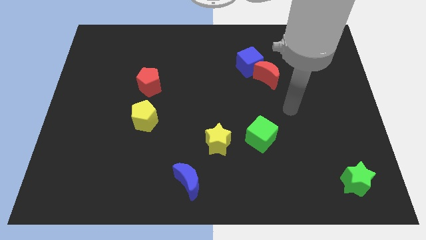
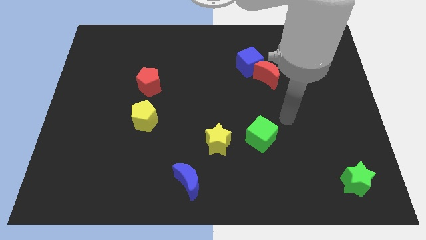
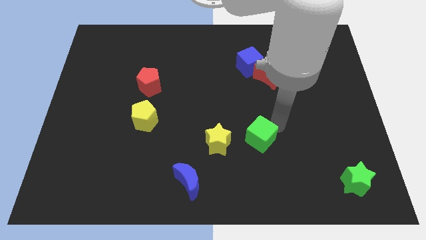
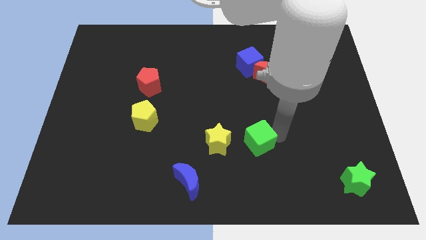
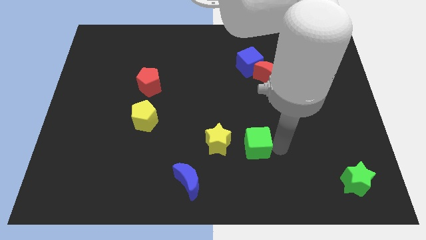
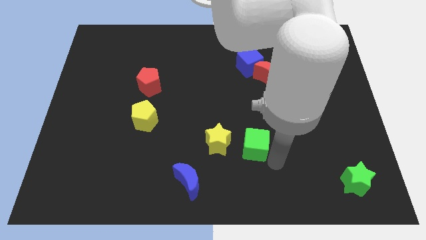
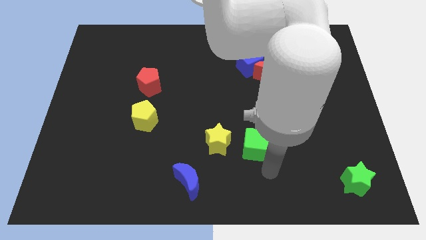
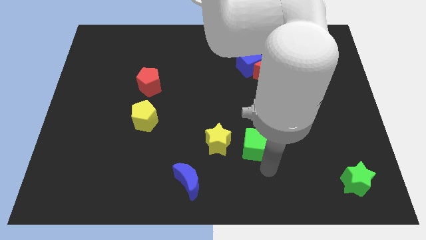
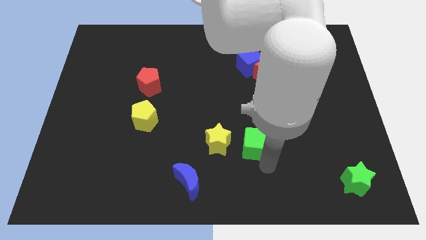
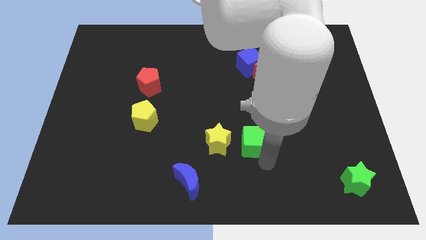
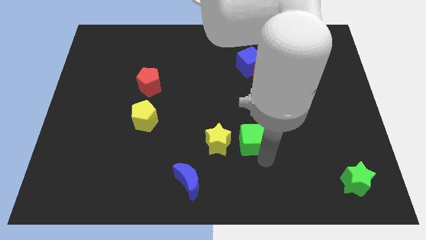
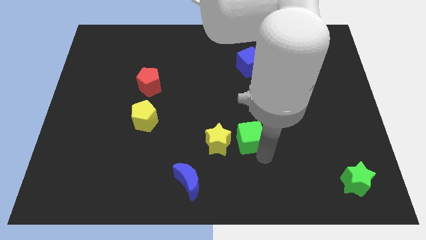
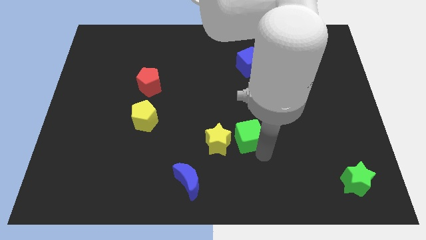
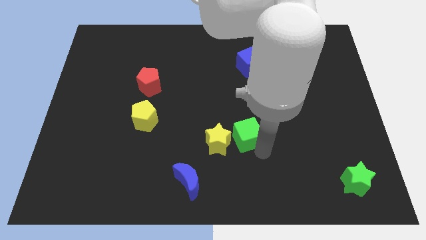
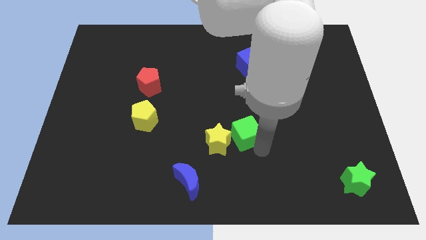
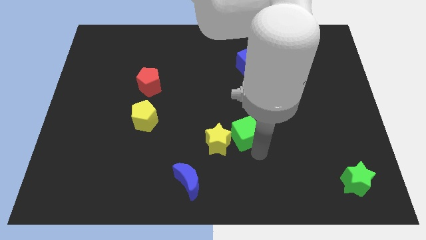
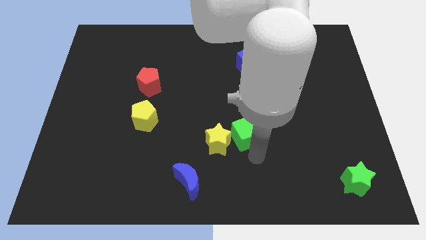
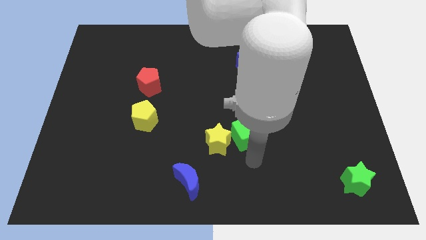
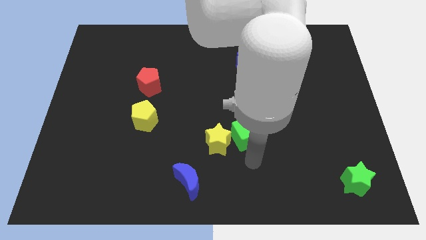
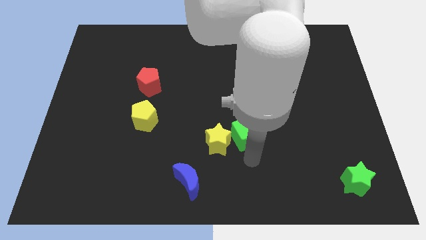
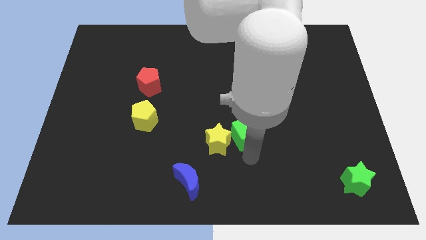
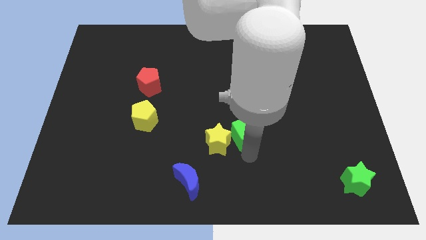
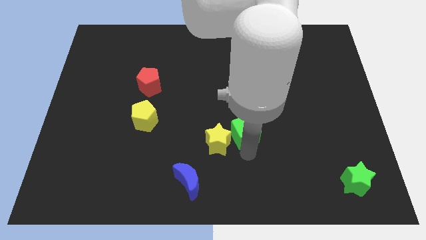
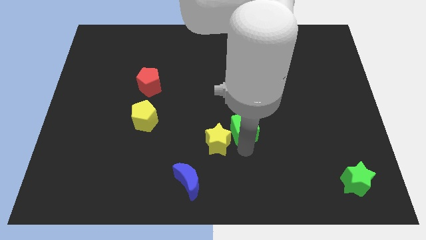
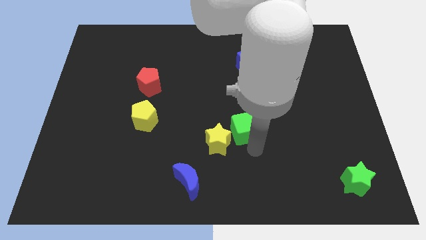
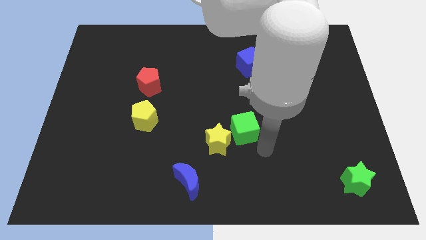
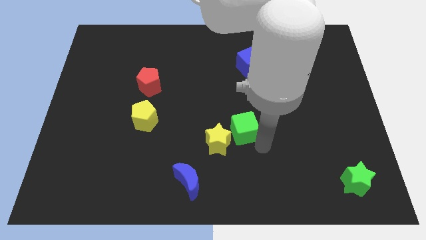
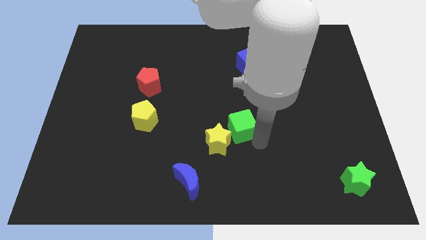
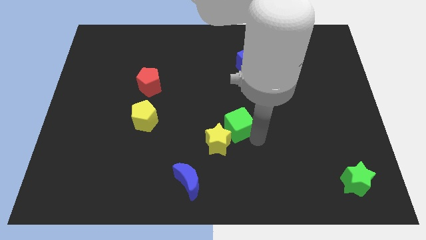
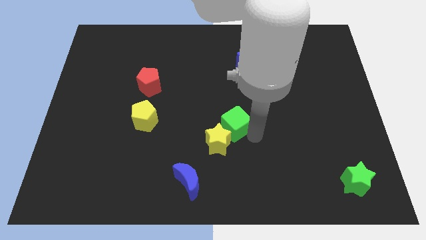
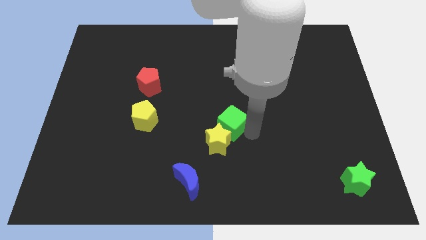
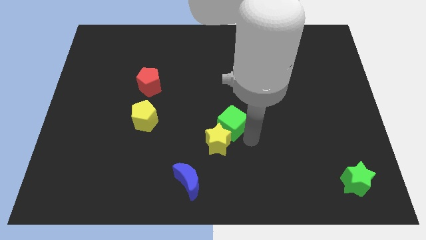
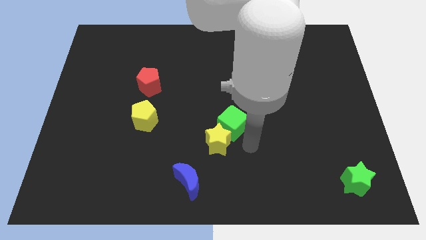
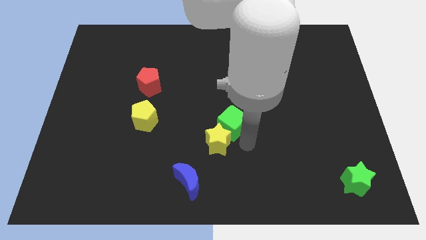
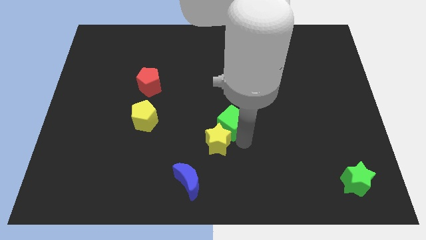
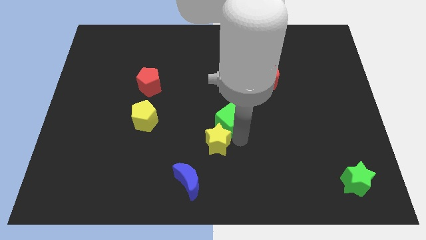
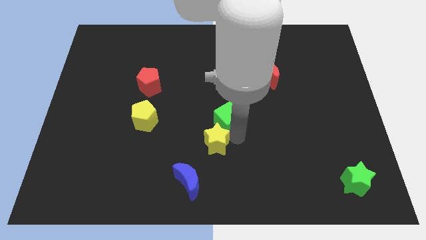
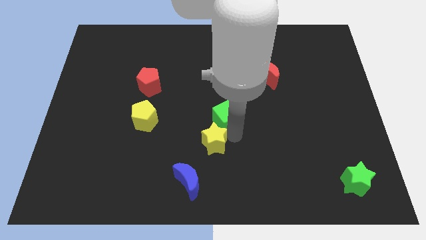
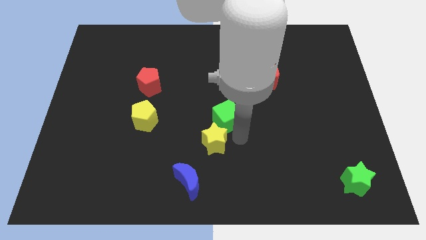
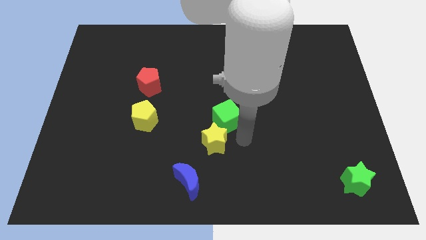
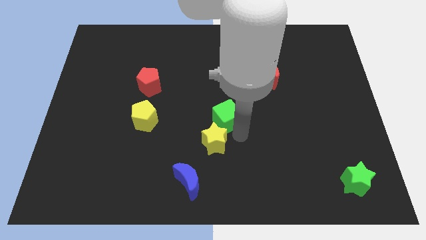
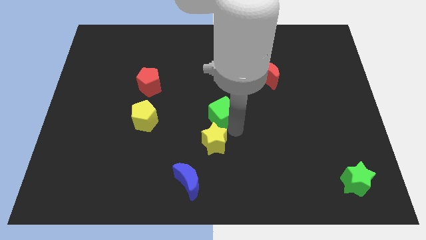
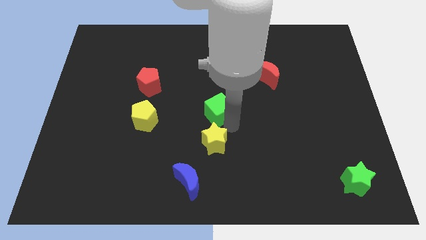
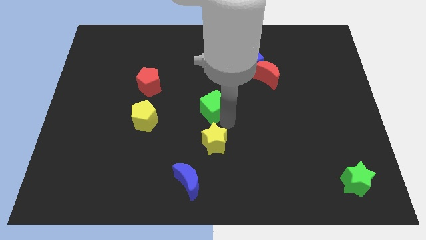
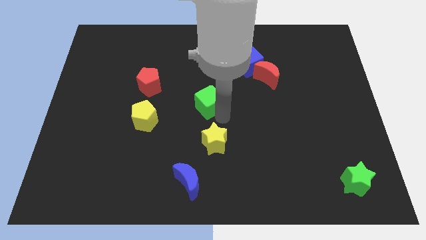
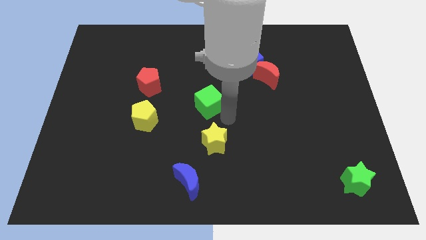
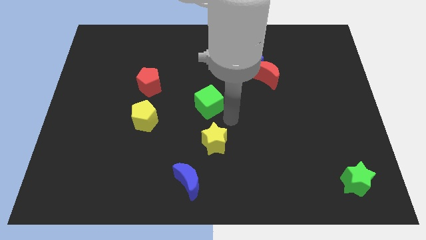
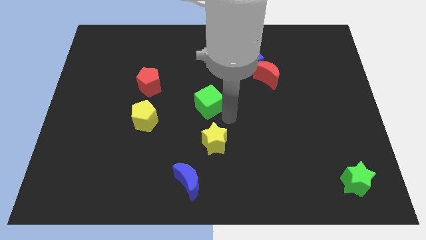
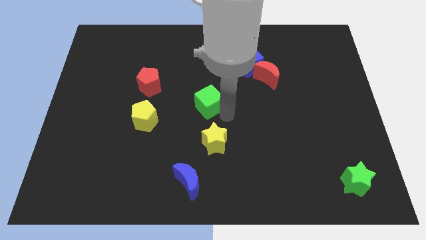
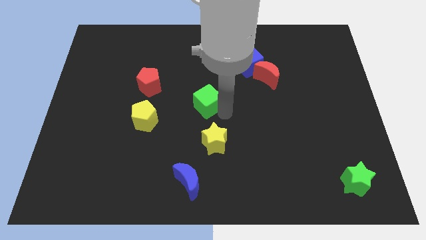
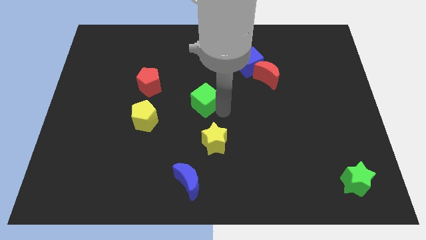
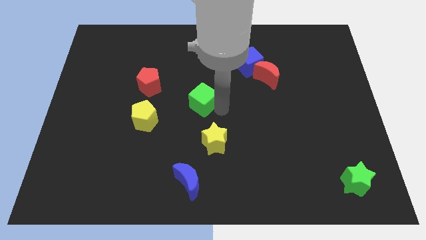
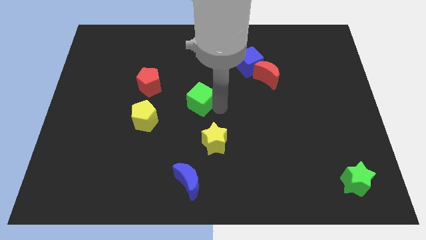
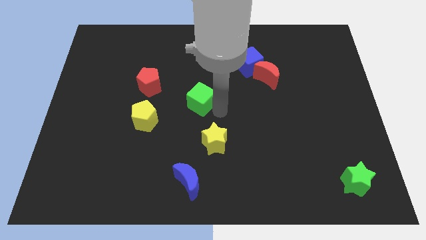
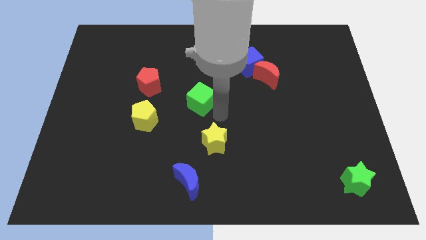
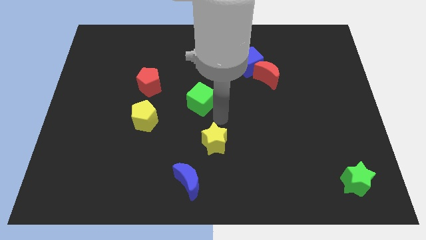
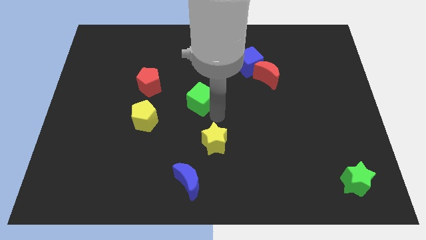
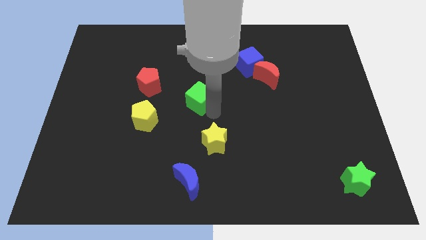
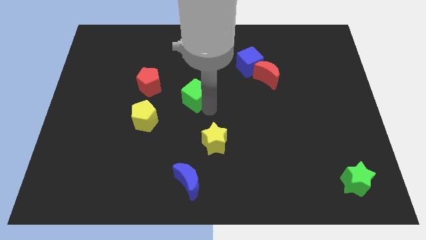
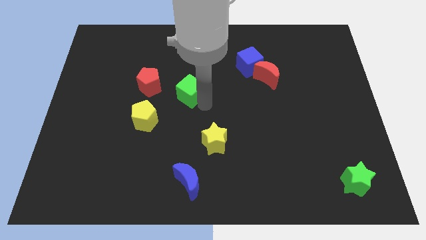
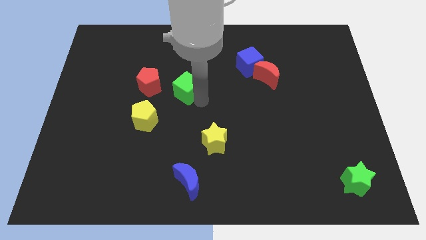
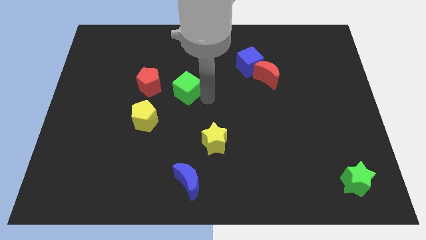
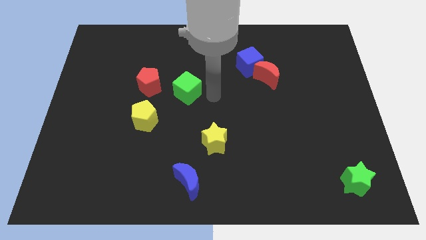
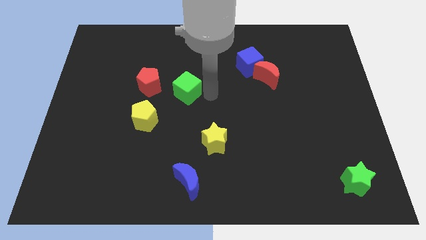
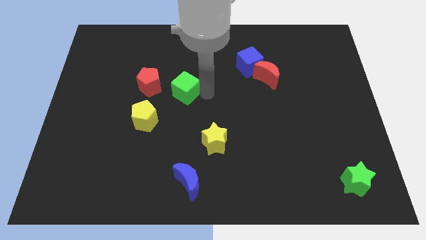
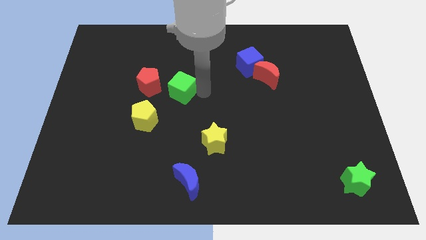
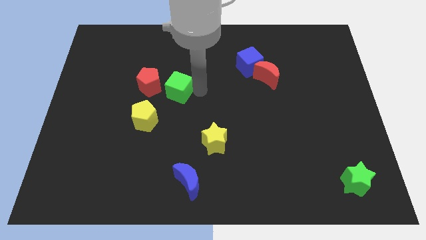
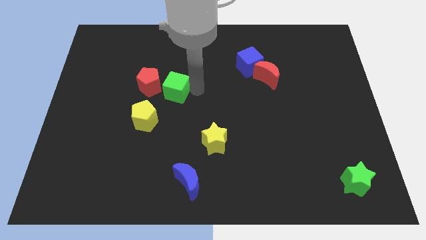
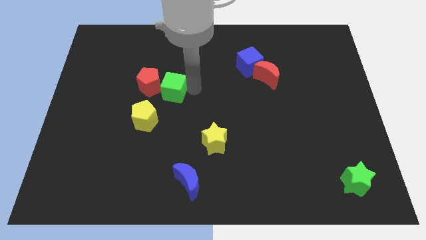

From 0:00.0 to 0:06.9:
slide the green cube to the red pentagon

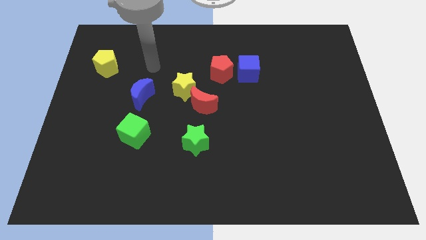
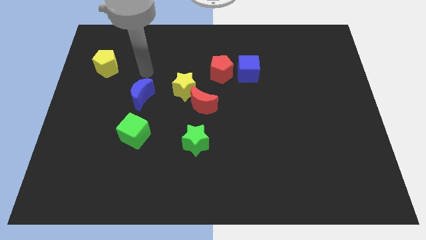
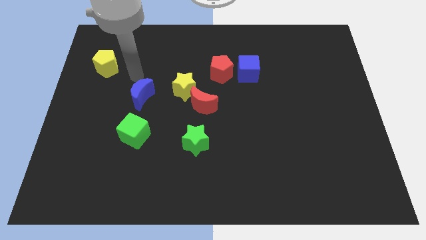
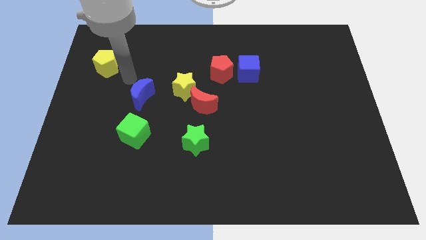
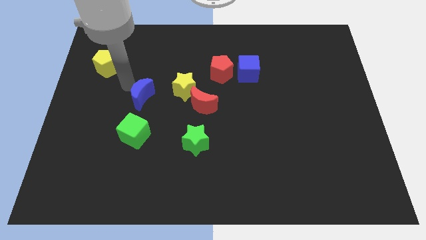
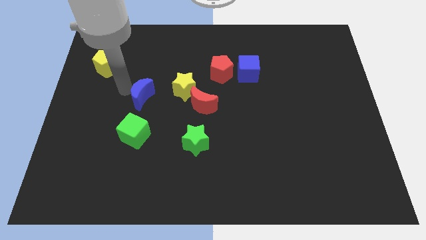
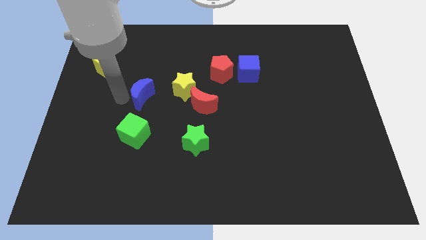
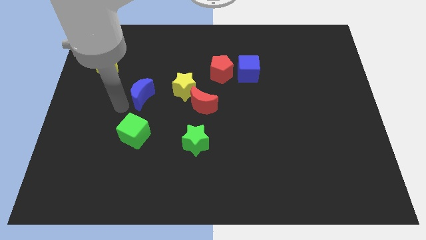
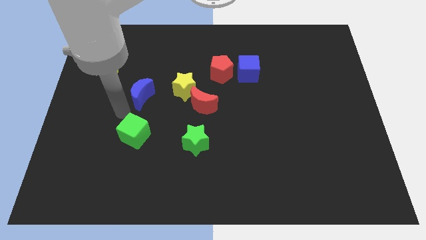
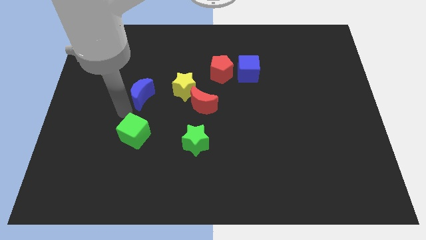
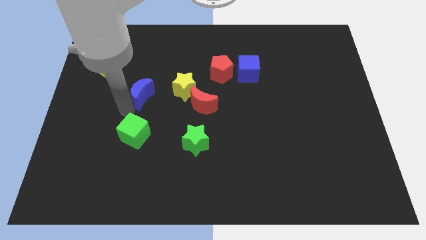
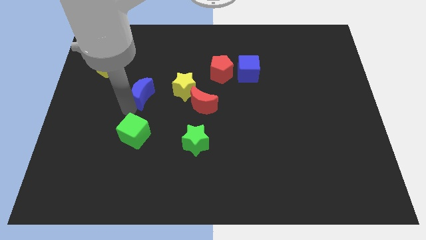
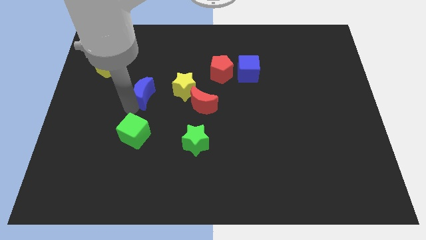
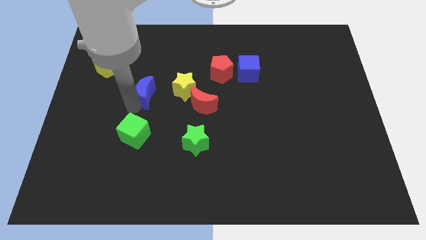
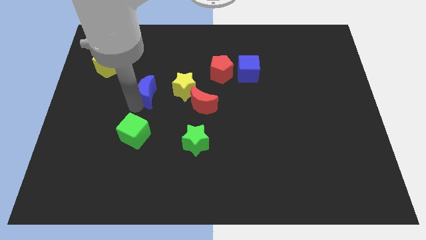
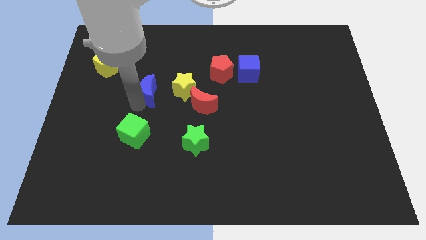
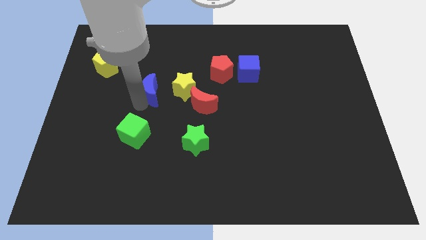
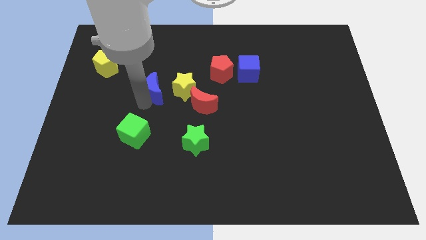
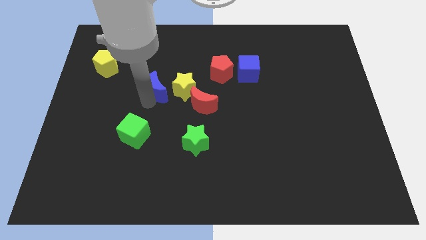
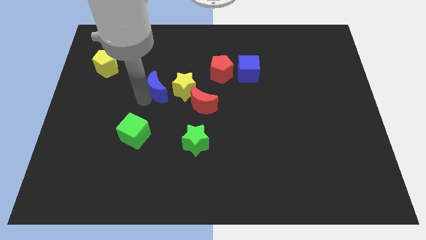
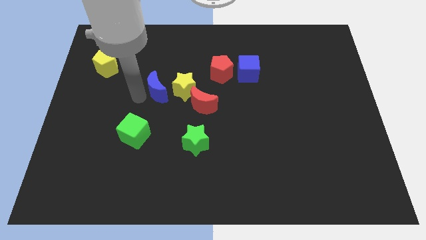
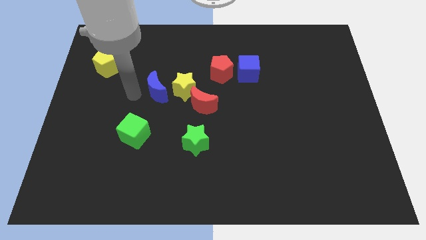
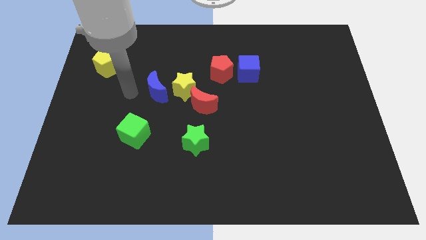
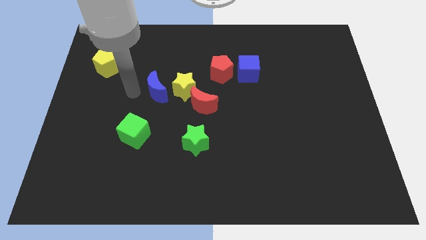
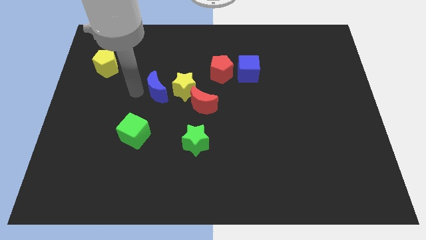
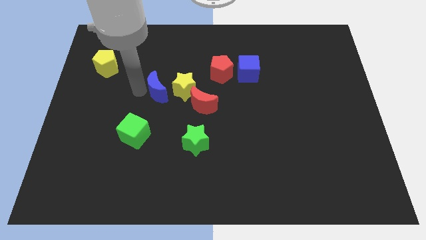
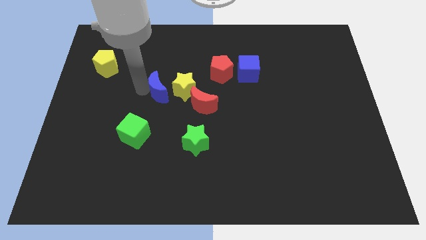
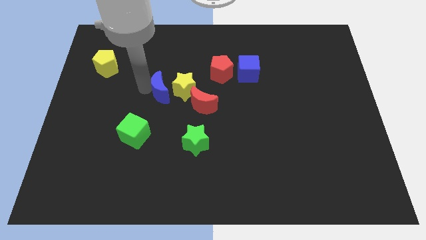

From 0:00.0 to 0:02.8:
move the blue moon to the yellow star
